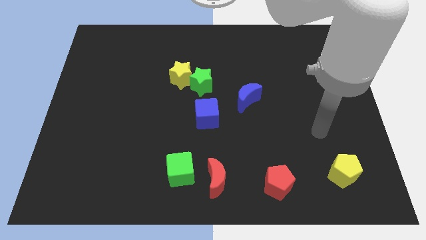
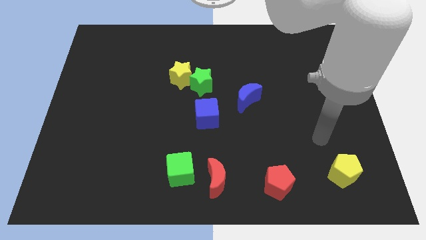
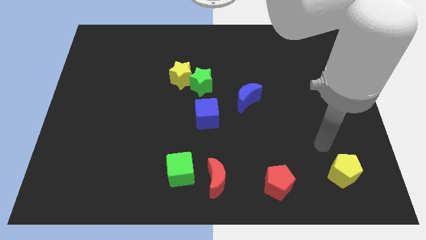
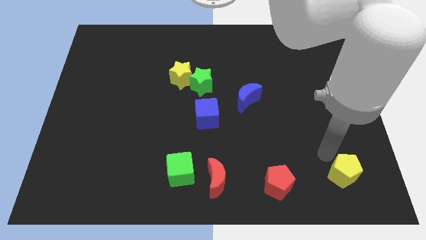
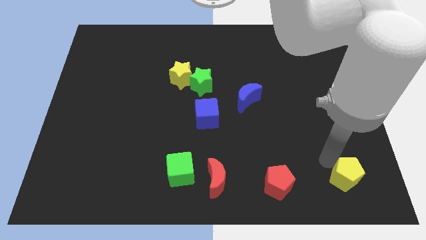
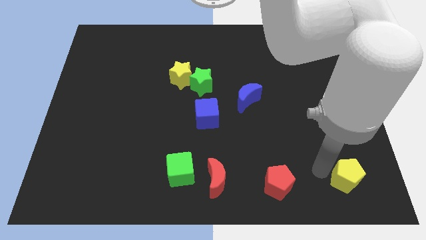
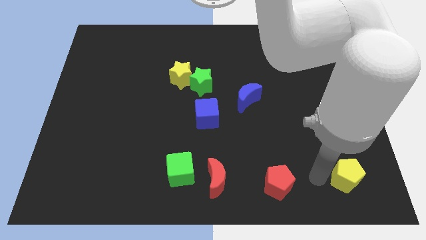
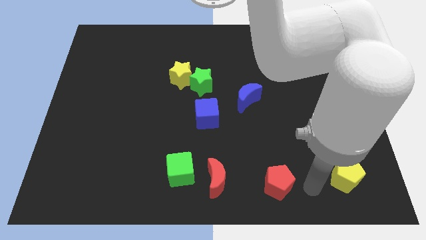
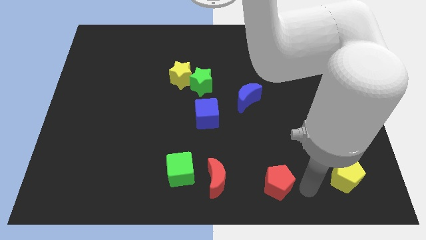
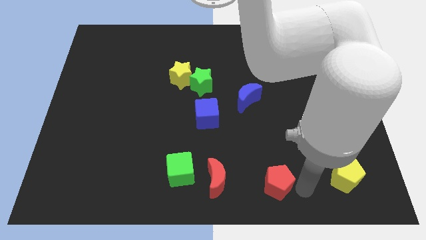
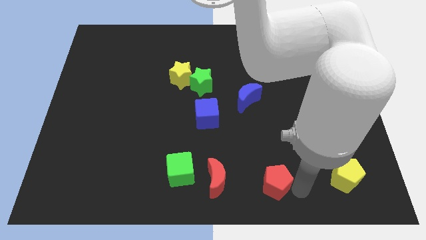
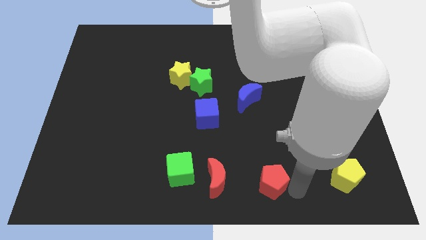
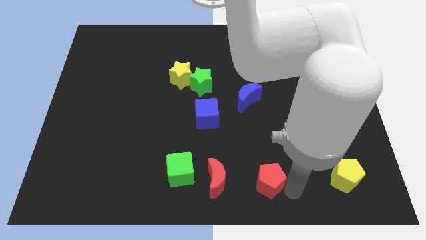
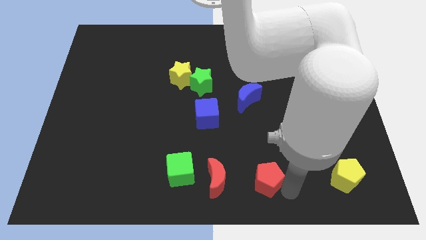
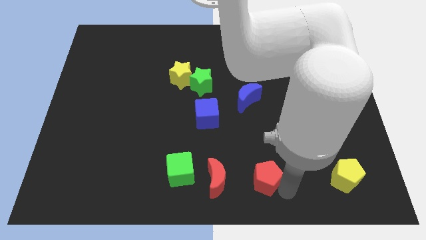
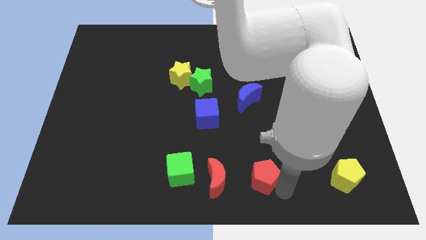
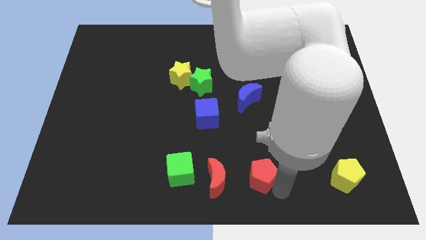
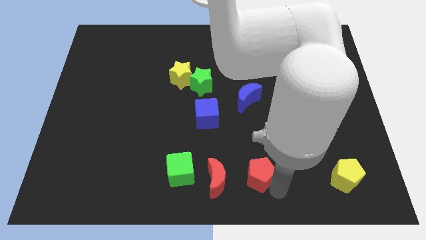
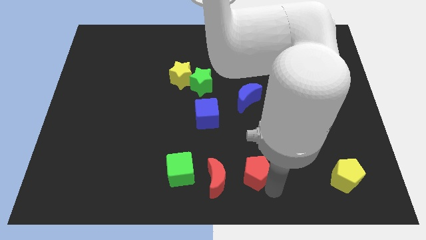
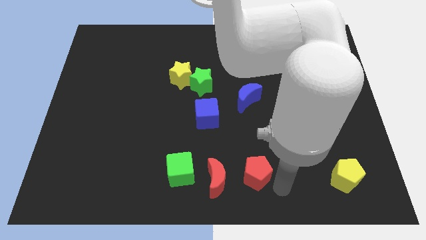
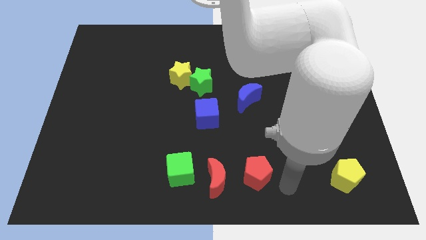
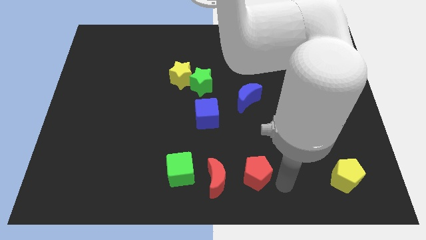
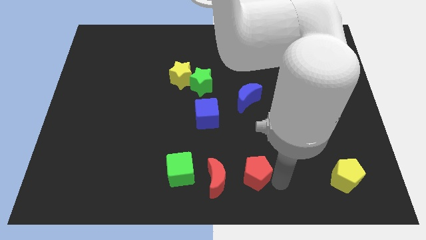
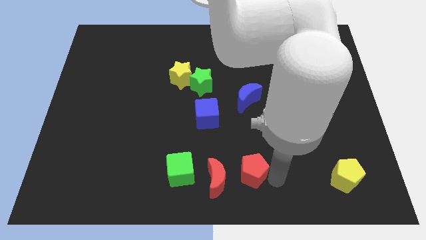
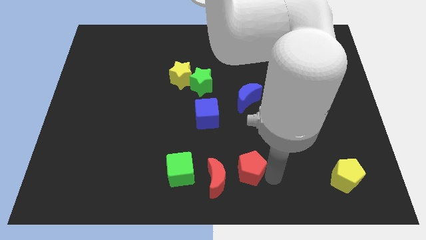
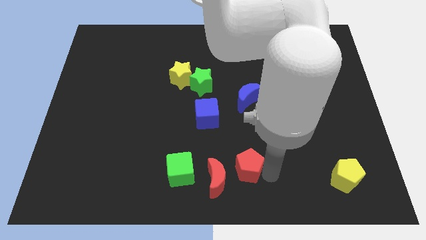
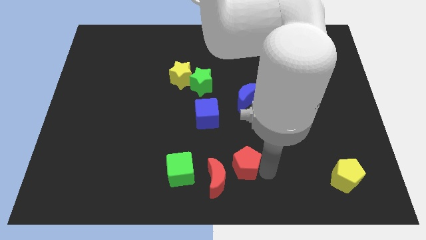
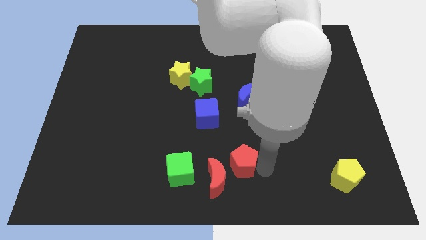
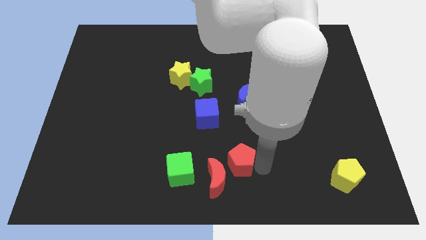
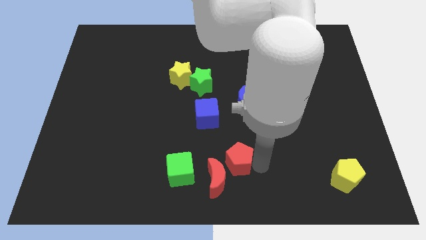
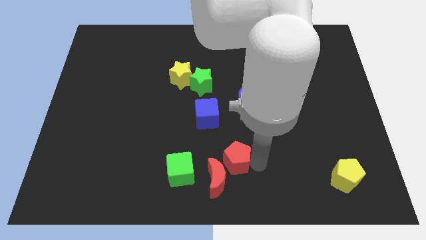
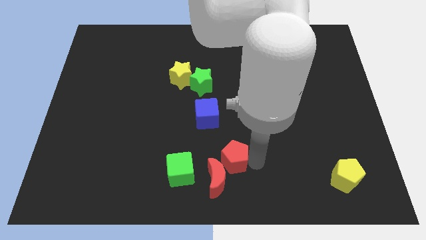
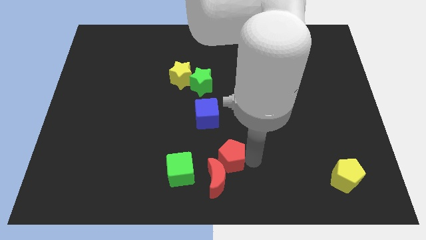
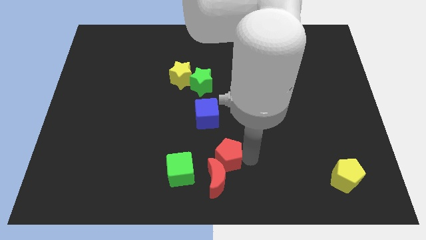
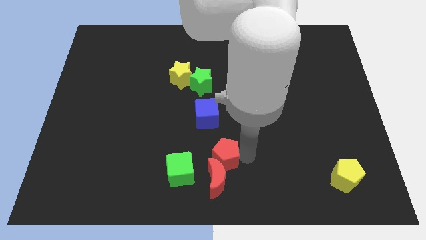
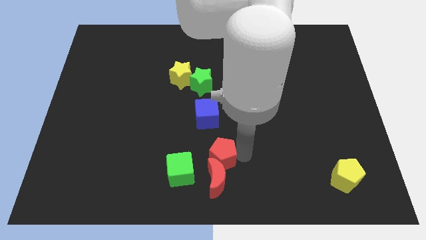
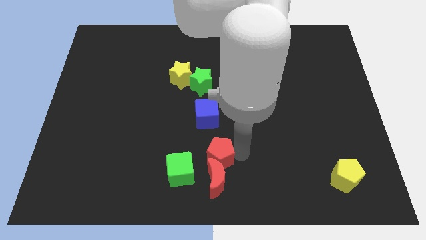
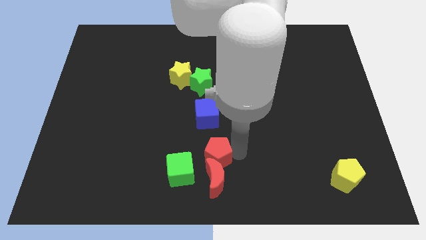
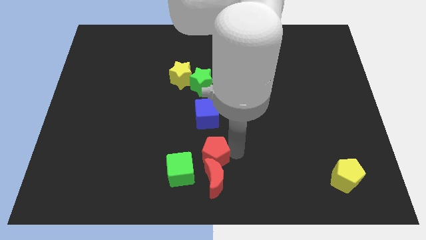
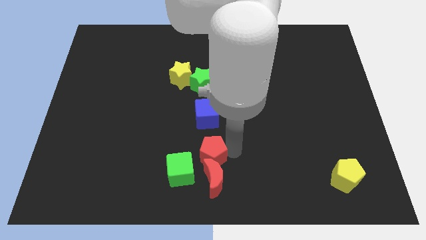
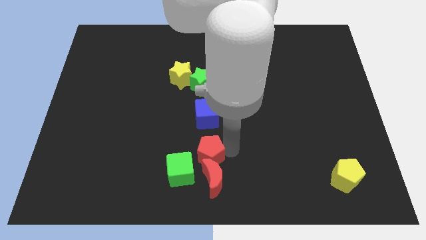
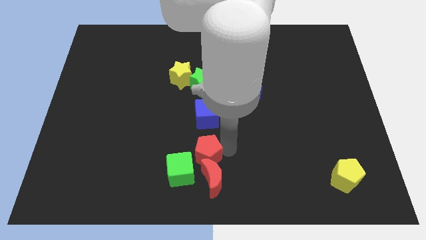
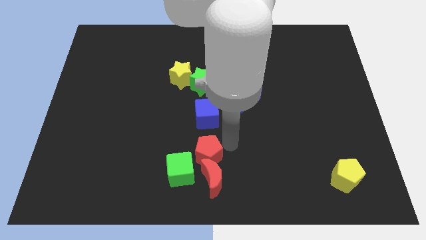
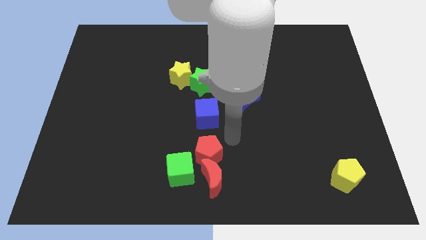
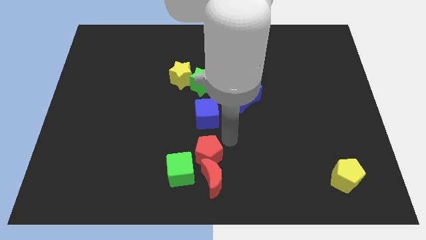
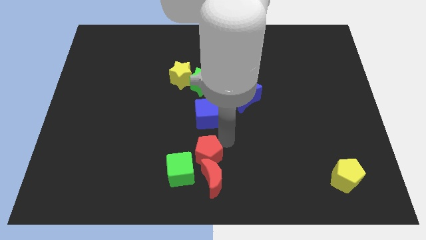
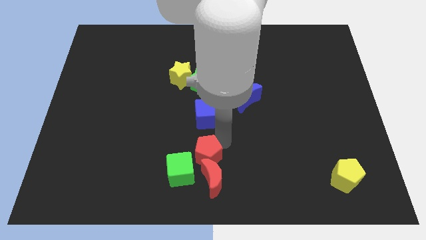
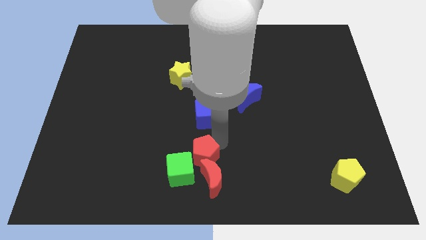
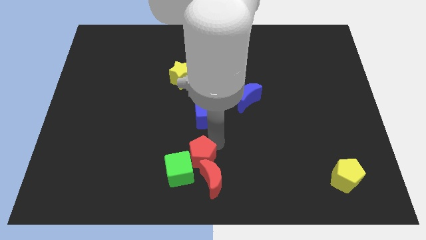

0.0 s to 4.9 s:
move the red pentagon close to the green cube

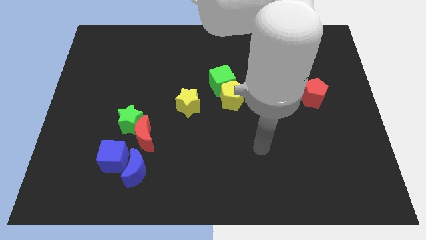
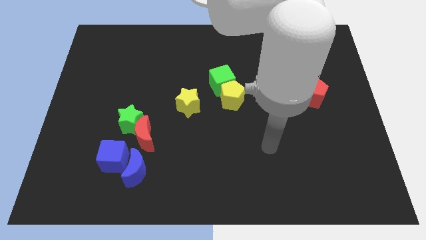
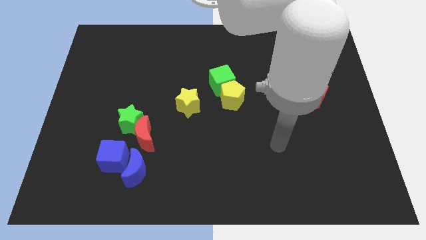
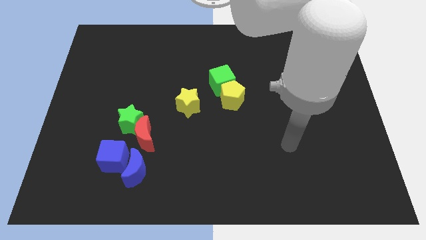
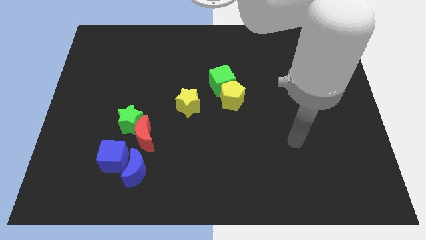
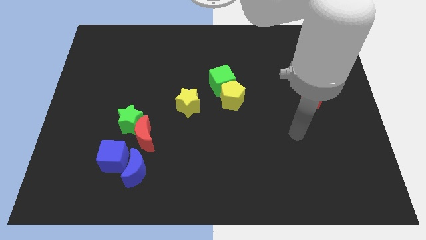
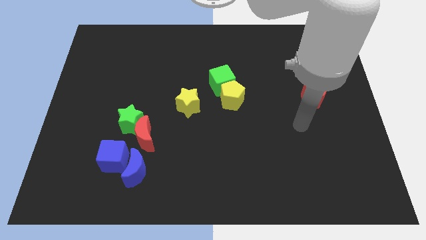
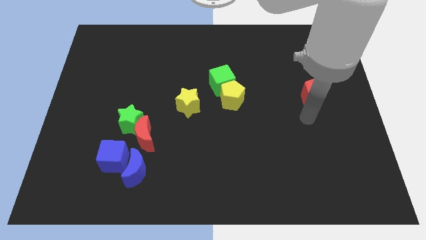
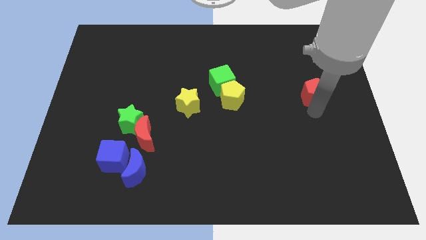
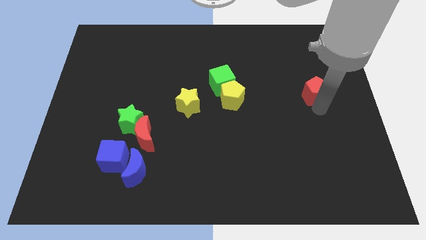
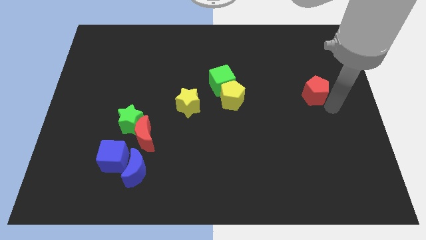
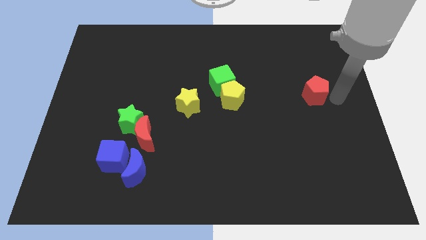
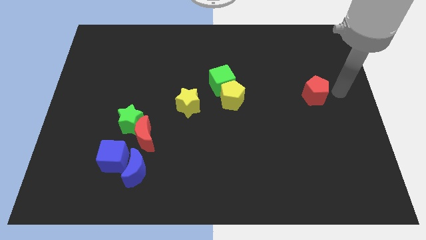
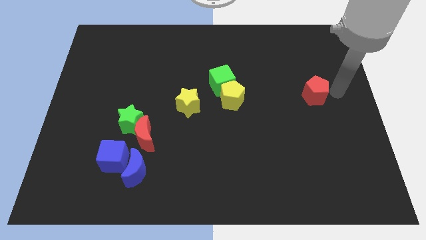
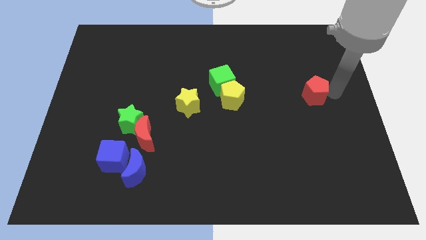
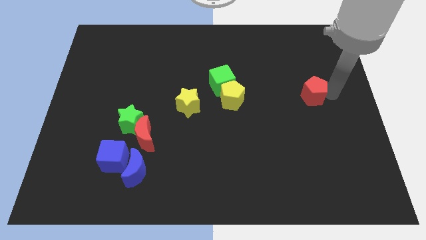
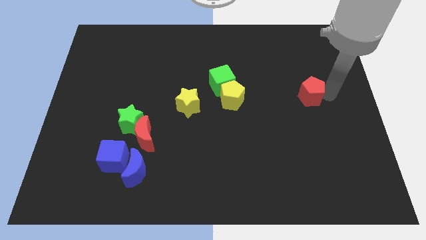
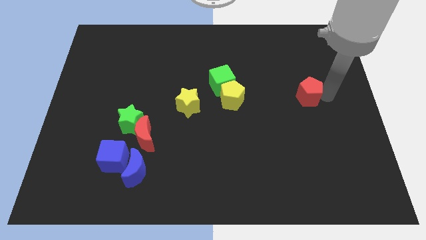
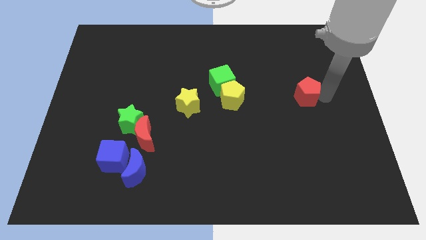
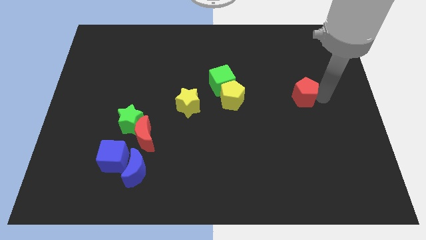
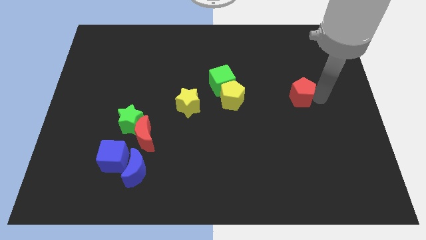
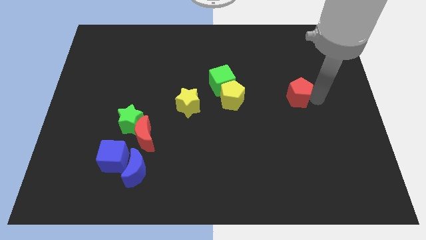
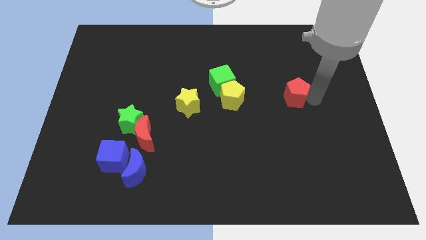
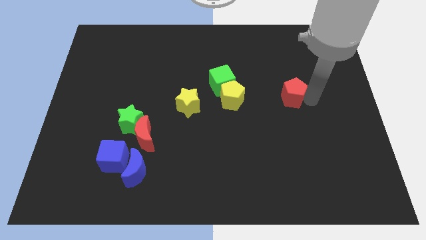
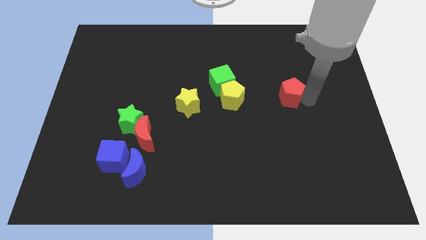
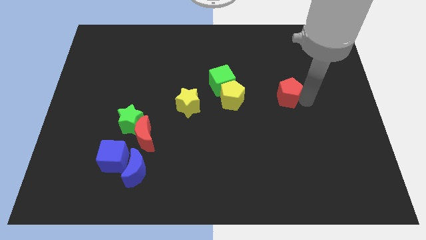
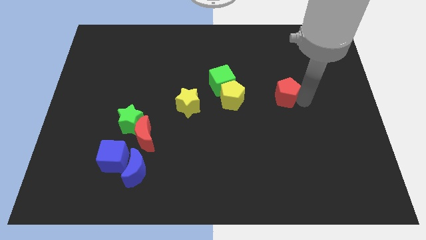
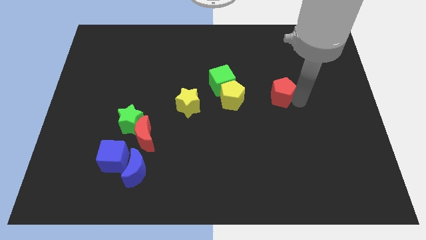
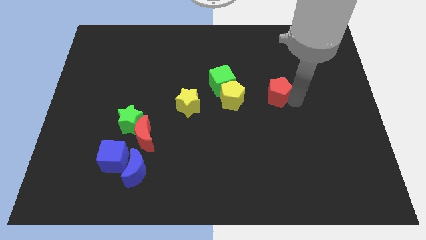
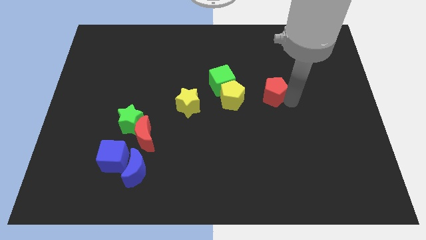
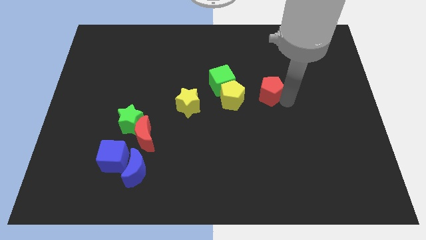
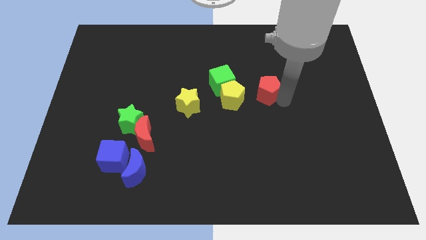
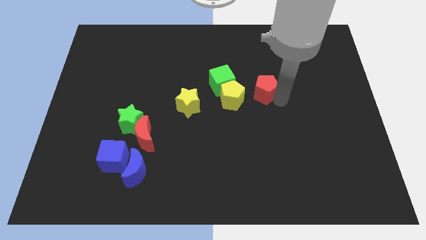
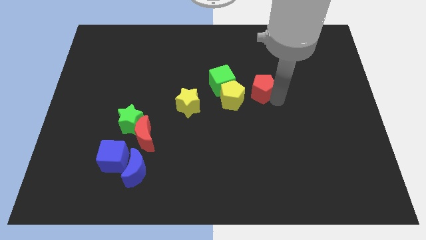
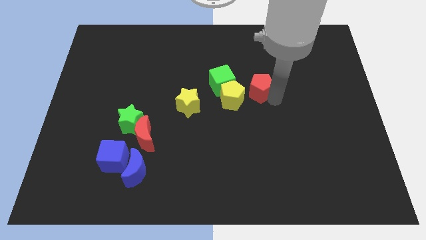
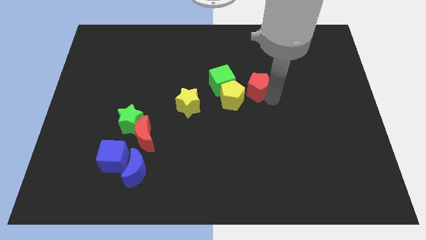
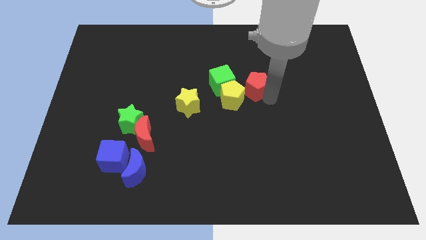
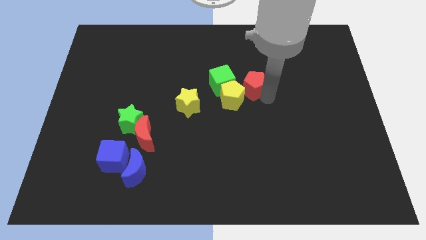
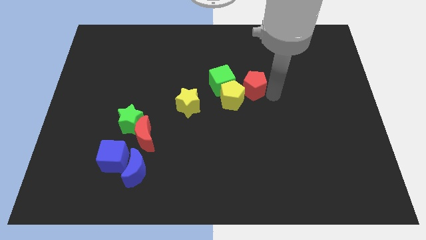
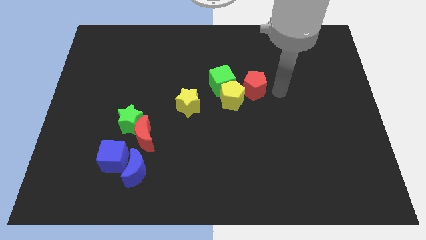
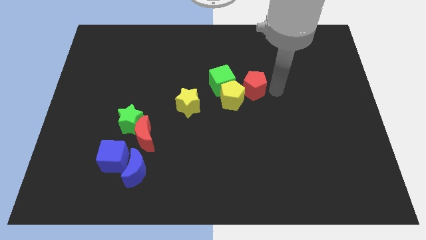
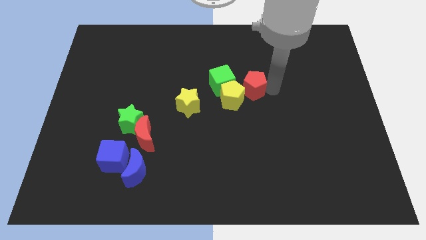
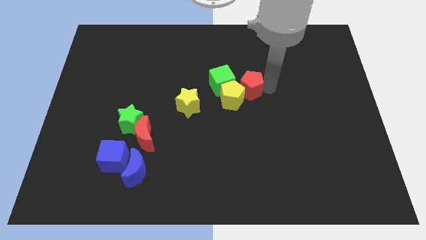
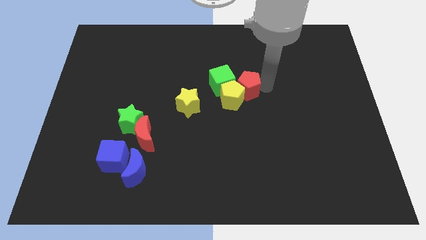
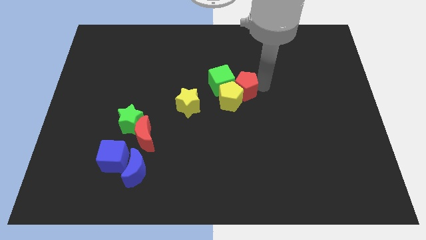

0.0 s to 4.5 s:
move the red pentagon towards the green cube
